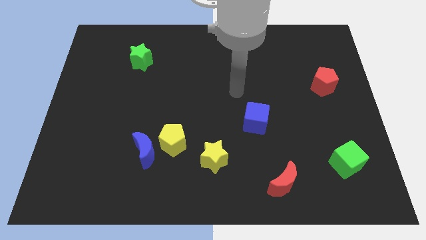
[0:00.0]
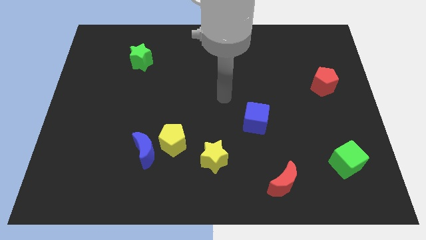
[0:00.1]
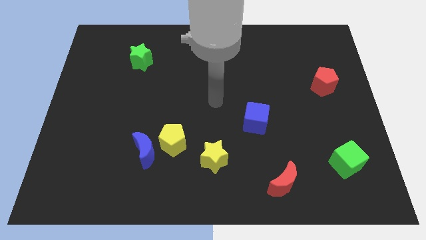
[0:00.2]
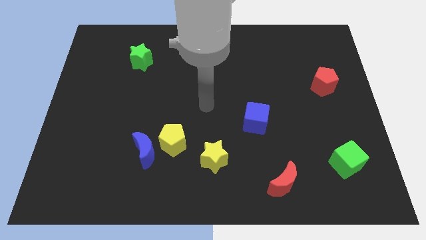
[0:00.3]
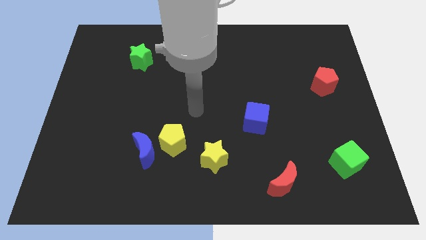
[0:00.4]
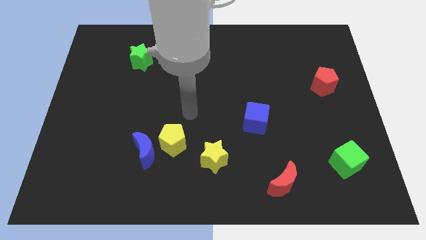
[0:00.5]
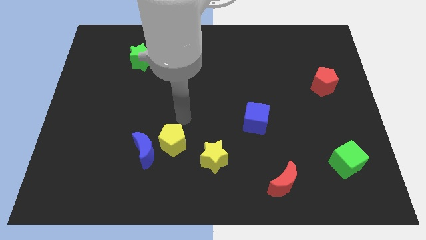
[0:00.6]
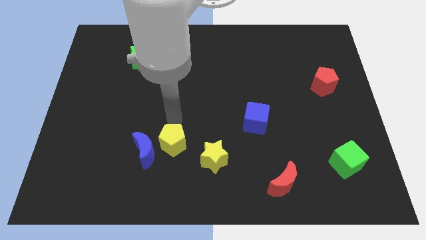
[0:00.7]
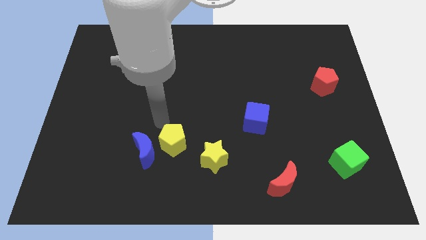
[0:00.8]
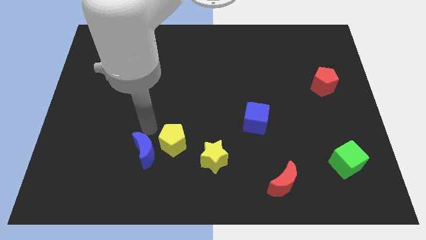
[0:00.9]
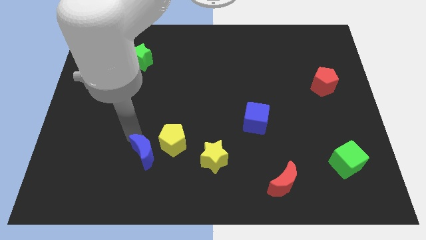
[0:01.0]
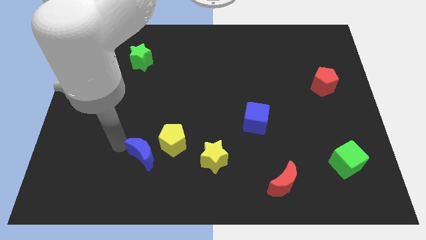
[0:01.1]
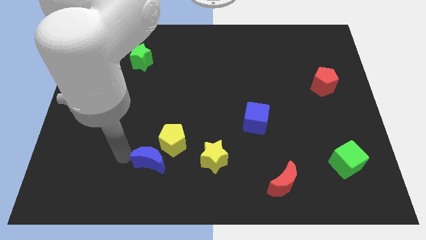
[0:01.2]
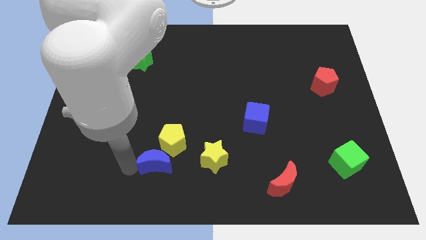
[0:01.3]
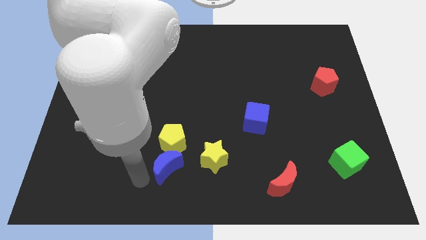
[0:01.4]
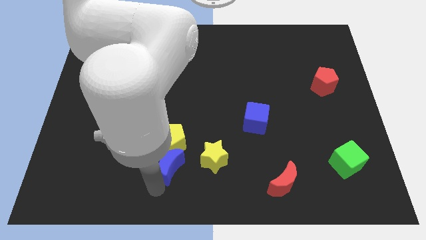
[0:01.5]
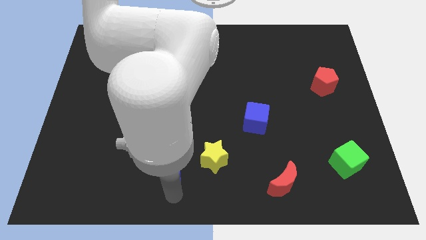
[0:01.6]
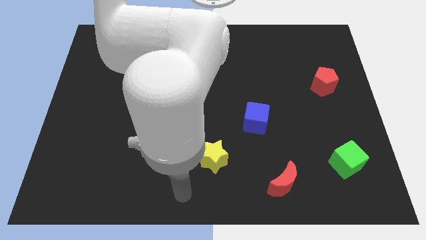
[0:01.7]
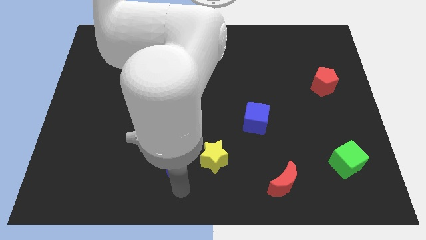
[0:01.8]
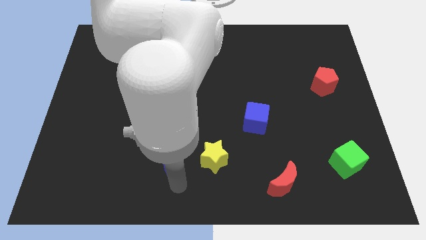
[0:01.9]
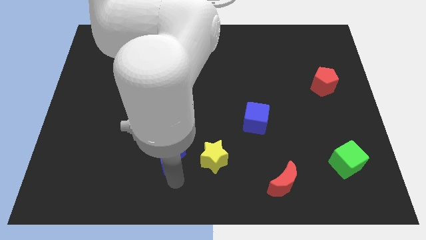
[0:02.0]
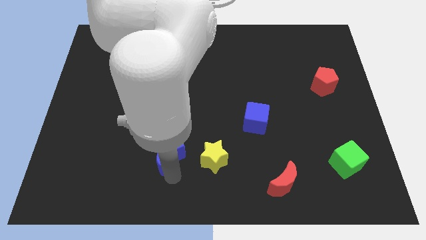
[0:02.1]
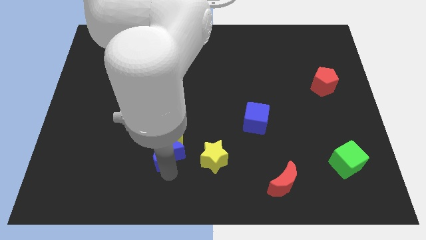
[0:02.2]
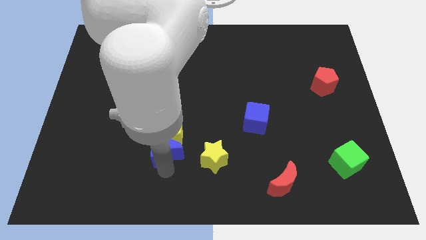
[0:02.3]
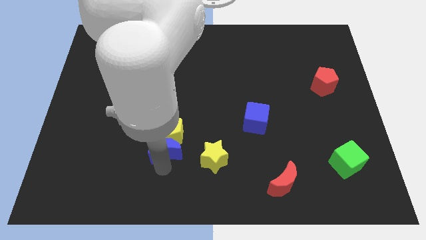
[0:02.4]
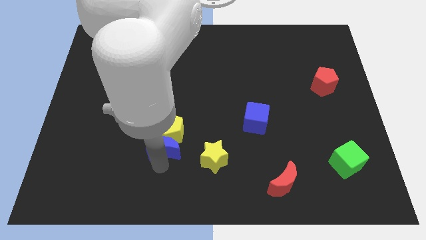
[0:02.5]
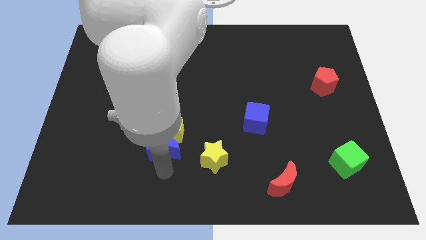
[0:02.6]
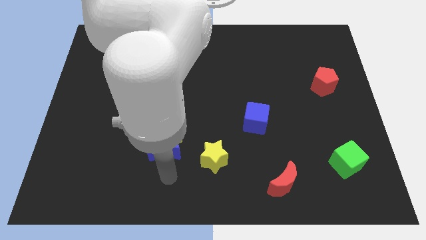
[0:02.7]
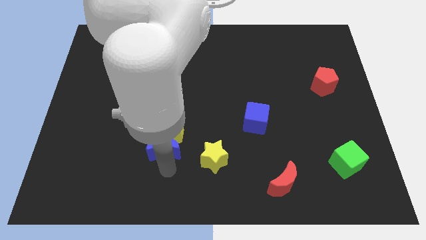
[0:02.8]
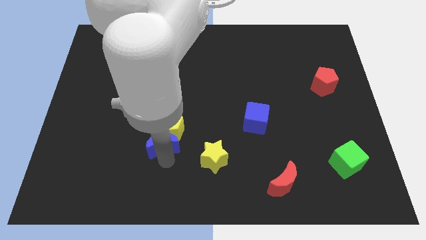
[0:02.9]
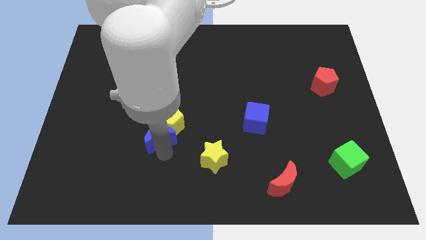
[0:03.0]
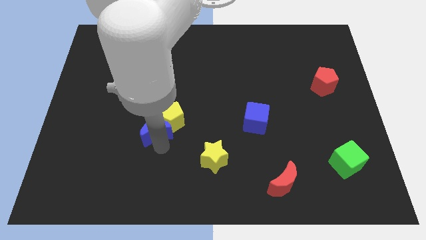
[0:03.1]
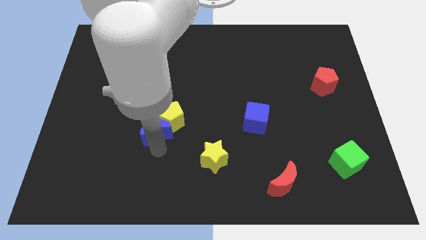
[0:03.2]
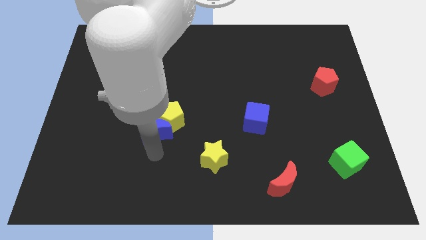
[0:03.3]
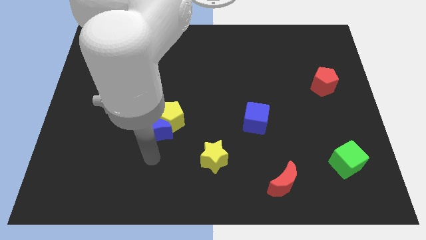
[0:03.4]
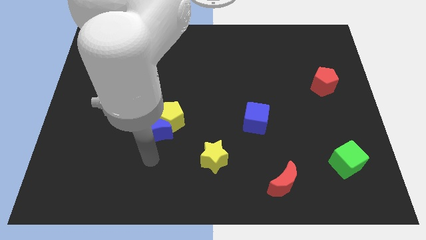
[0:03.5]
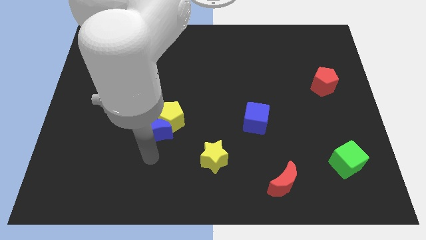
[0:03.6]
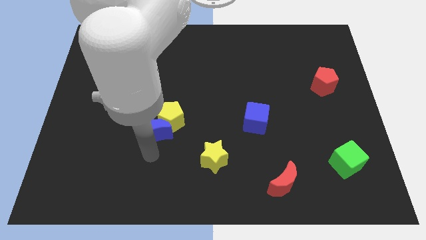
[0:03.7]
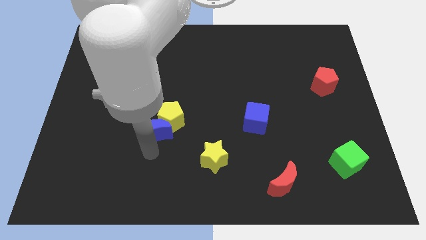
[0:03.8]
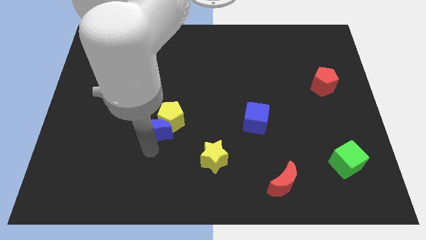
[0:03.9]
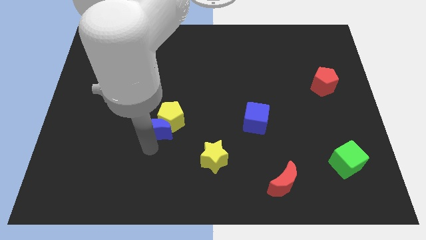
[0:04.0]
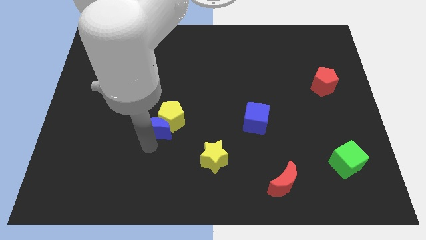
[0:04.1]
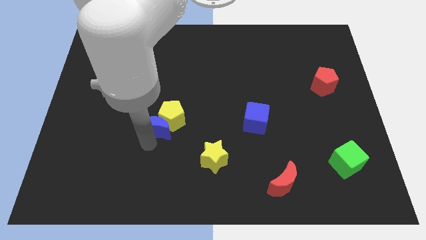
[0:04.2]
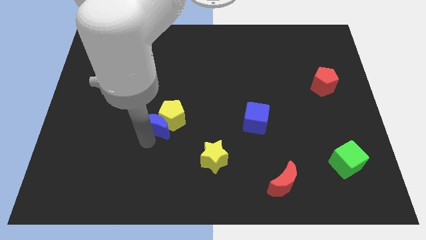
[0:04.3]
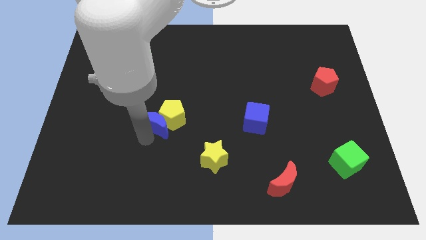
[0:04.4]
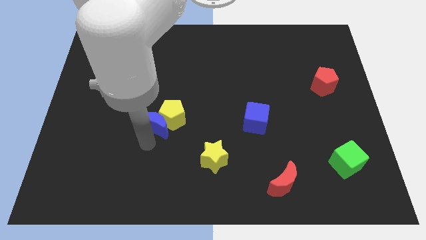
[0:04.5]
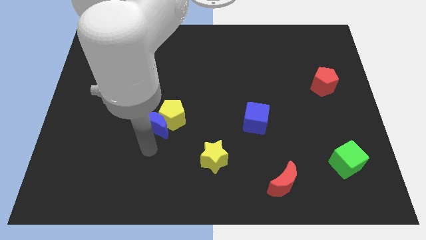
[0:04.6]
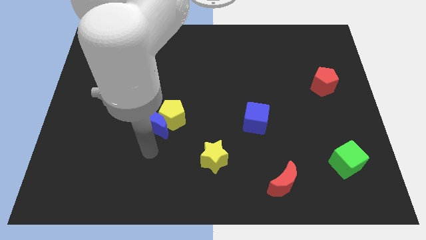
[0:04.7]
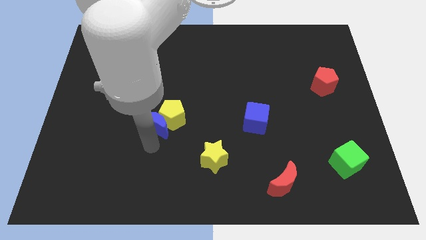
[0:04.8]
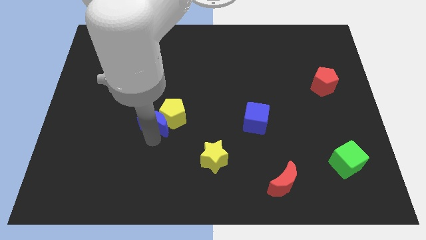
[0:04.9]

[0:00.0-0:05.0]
slide the blue moon a little bit upwards

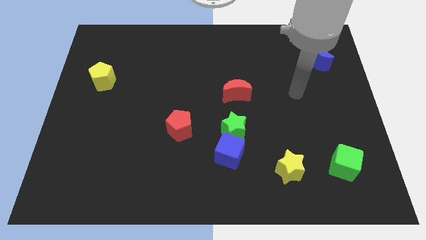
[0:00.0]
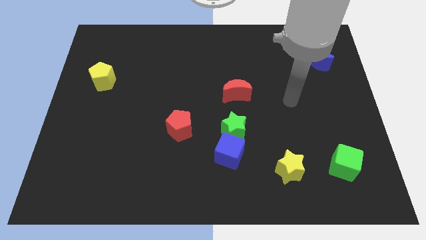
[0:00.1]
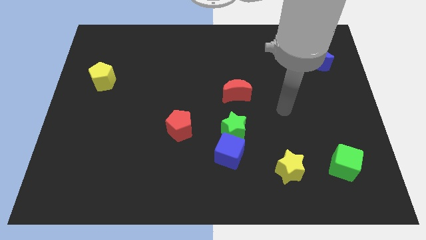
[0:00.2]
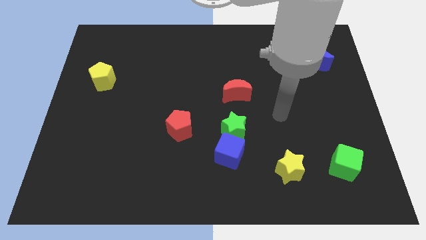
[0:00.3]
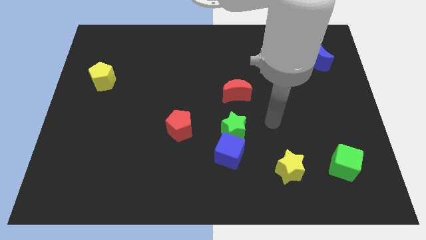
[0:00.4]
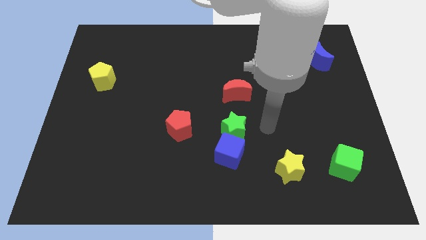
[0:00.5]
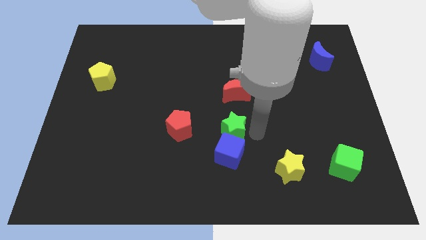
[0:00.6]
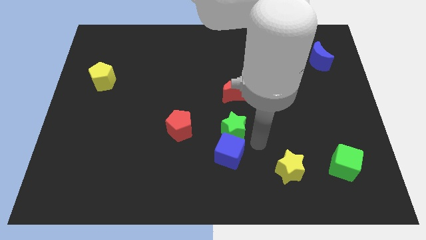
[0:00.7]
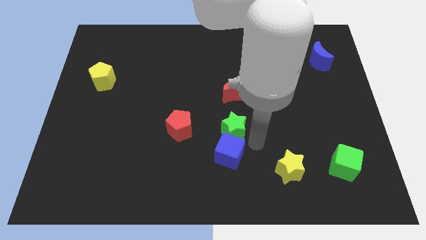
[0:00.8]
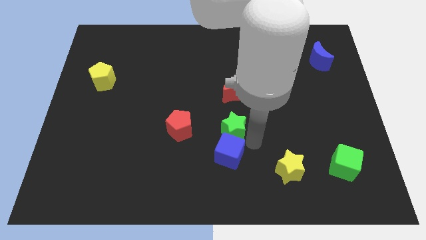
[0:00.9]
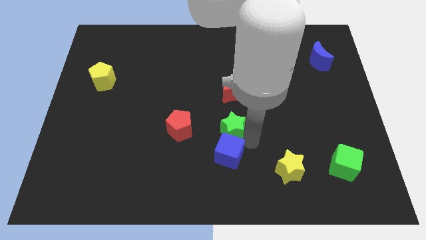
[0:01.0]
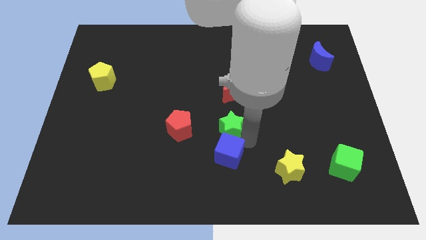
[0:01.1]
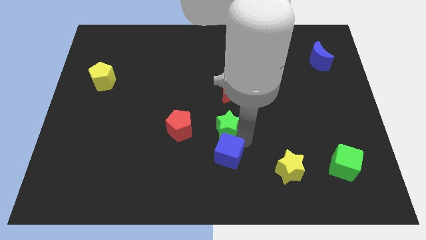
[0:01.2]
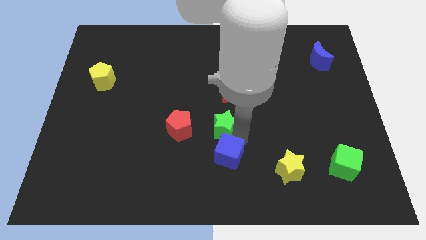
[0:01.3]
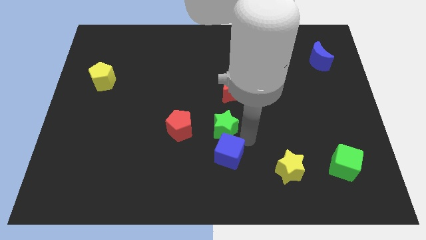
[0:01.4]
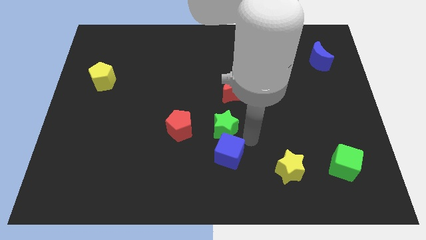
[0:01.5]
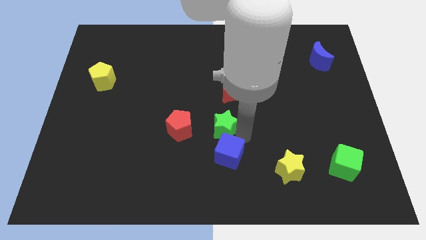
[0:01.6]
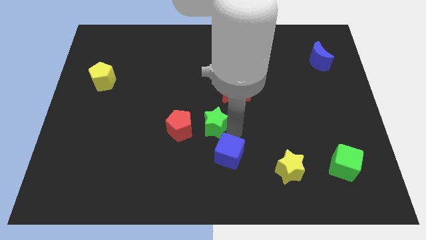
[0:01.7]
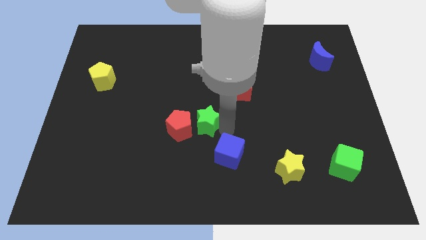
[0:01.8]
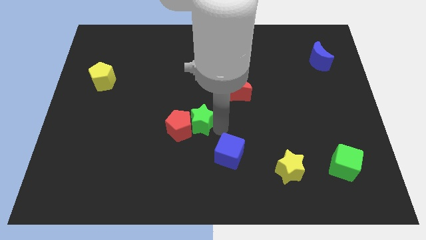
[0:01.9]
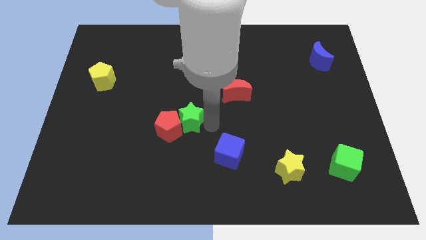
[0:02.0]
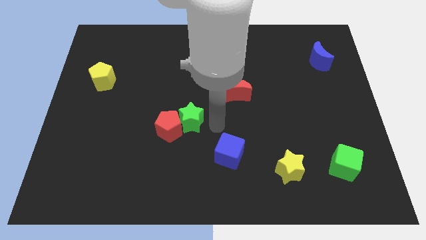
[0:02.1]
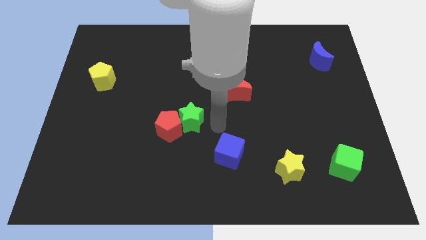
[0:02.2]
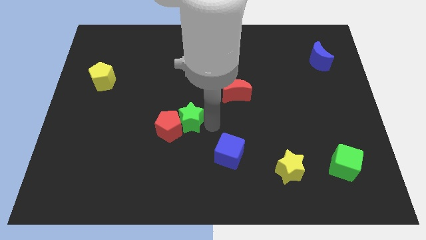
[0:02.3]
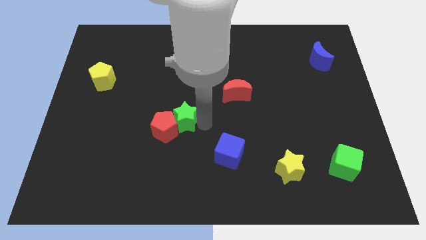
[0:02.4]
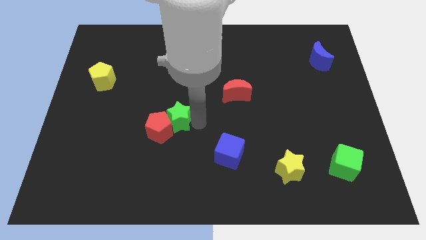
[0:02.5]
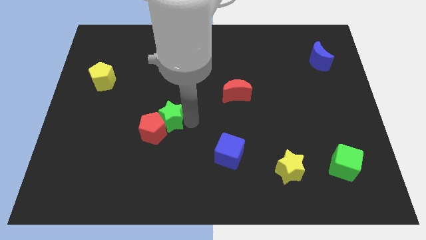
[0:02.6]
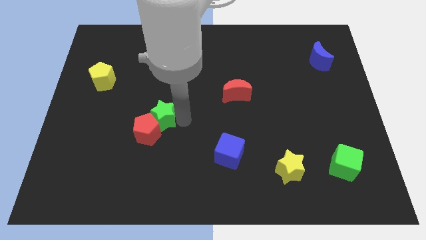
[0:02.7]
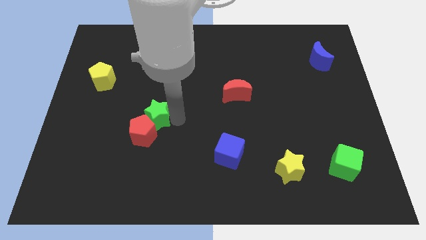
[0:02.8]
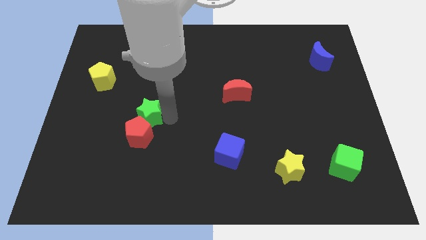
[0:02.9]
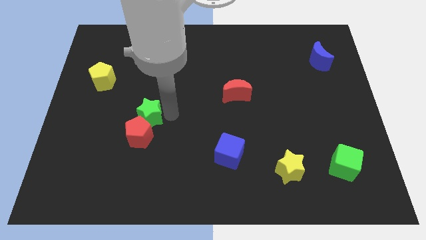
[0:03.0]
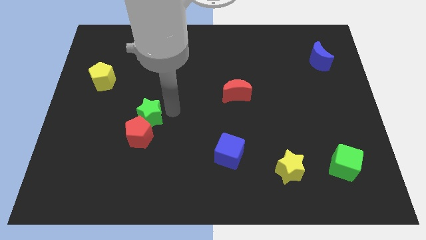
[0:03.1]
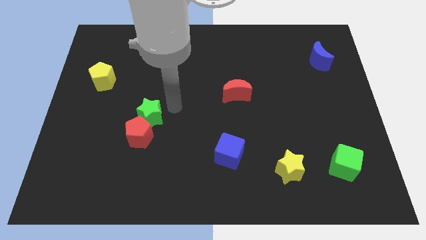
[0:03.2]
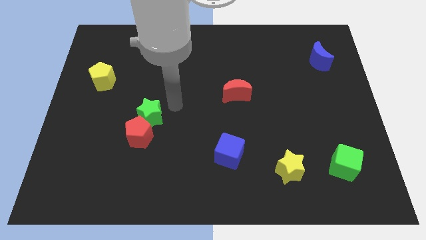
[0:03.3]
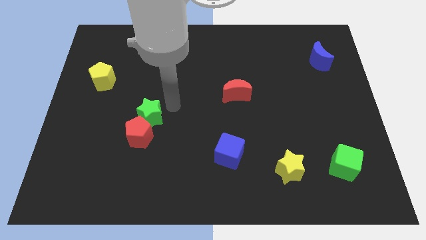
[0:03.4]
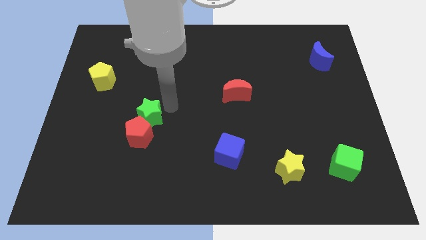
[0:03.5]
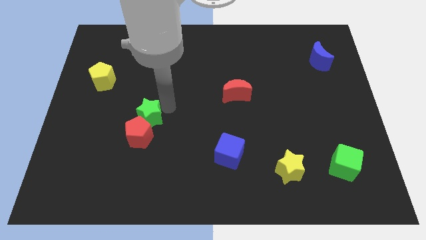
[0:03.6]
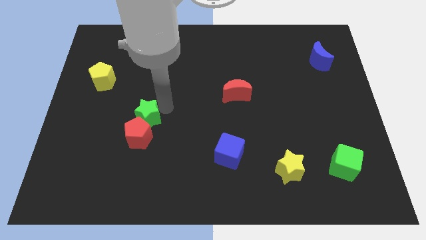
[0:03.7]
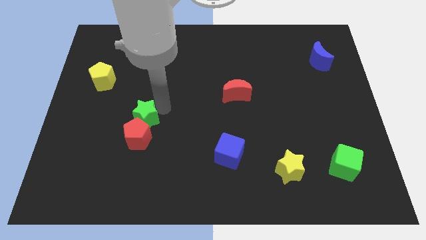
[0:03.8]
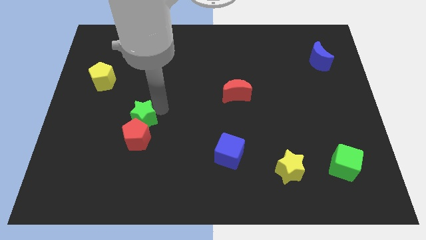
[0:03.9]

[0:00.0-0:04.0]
push the green star left
